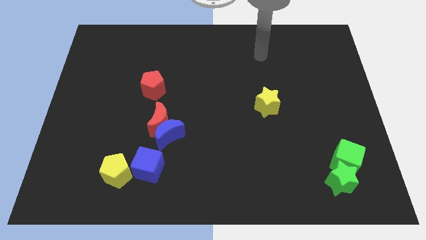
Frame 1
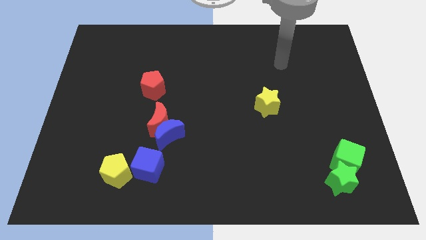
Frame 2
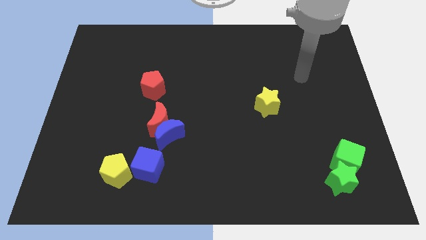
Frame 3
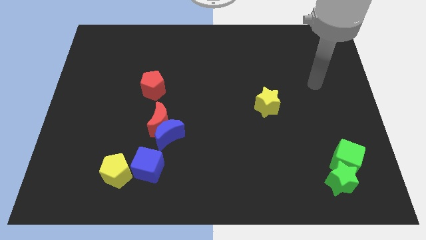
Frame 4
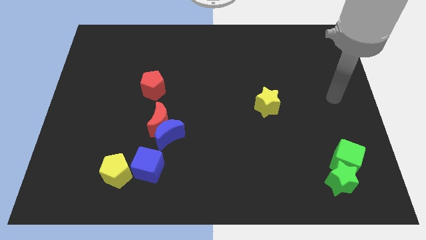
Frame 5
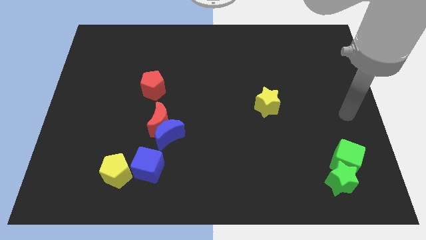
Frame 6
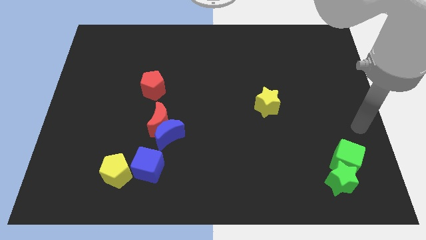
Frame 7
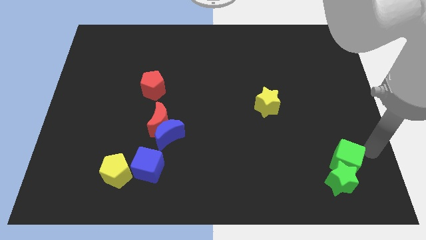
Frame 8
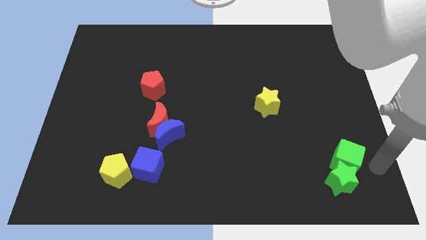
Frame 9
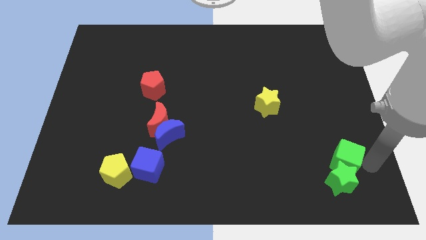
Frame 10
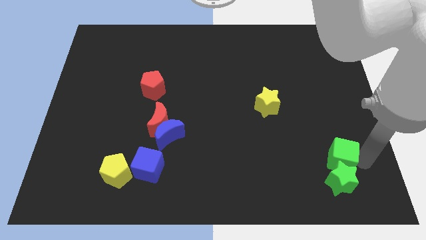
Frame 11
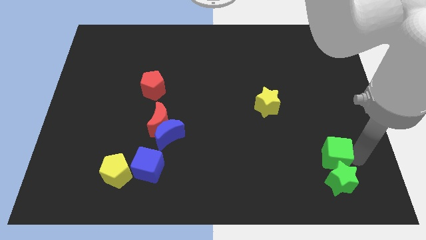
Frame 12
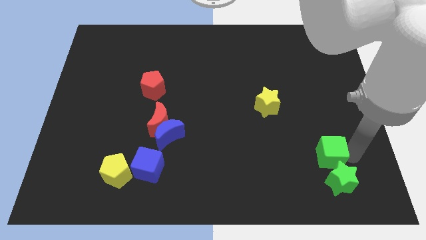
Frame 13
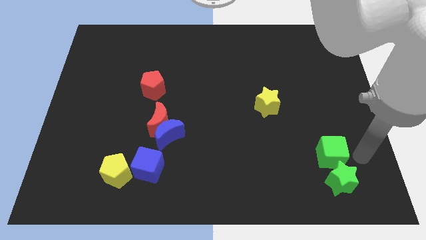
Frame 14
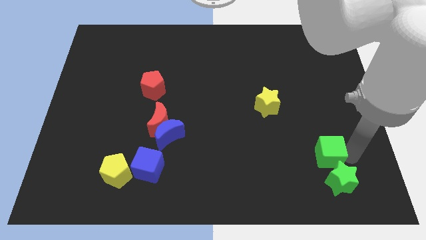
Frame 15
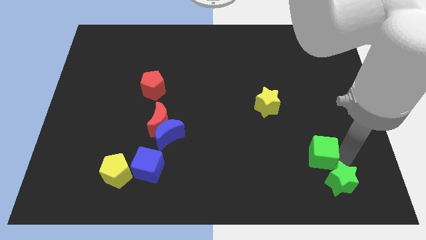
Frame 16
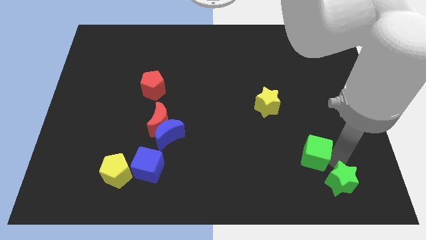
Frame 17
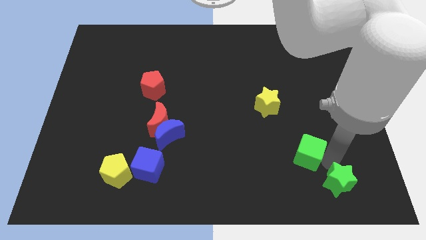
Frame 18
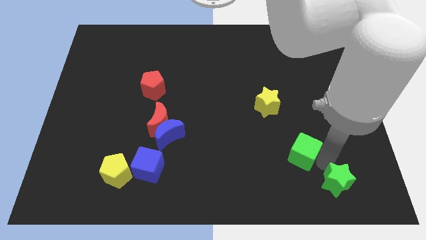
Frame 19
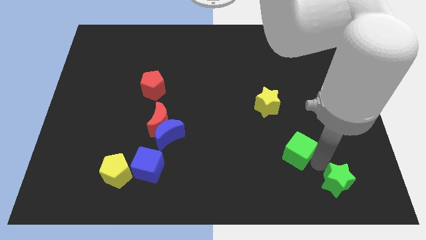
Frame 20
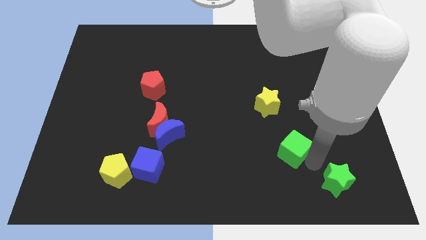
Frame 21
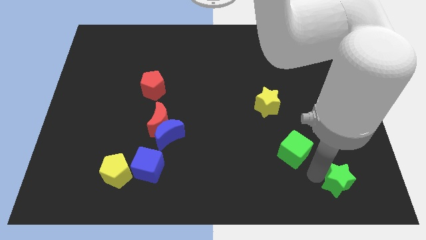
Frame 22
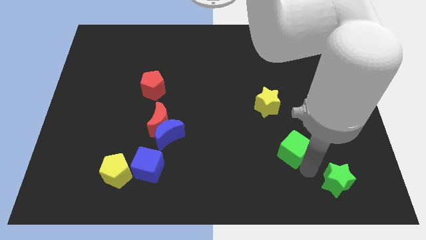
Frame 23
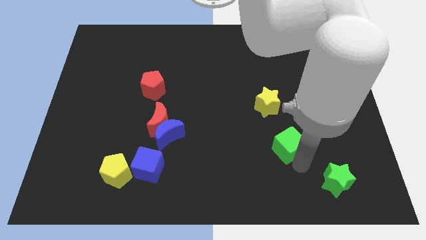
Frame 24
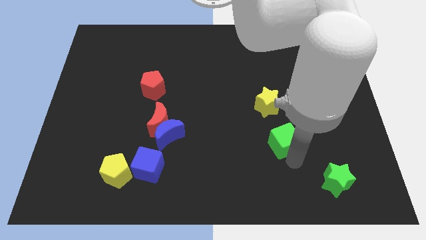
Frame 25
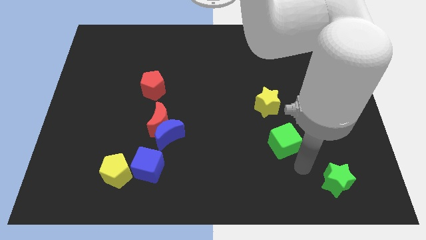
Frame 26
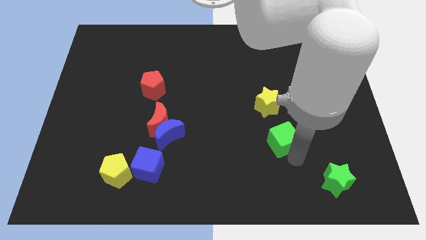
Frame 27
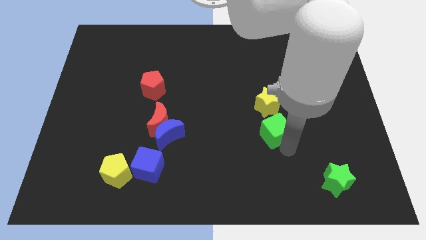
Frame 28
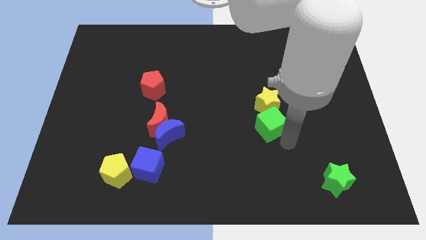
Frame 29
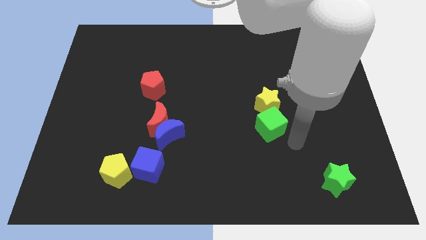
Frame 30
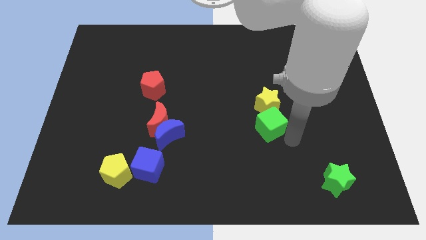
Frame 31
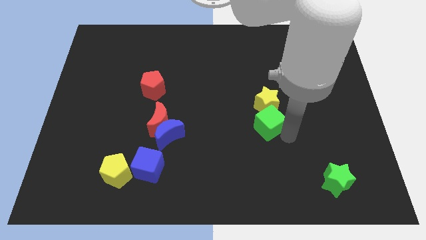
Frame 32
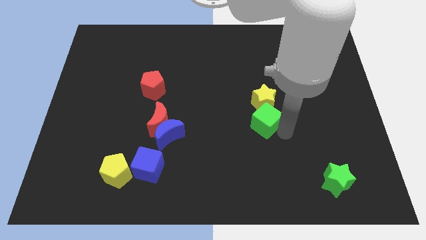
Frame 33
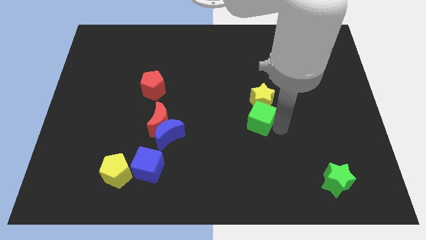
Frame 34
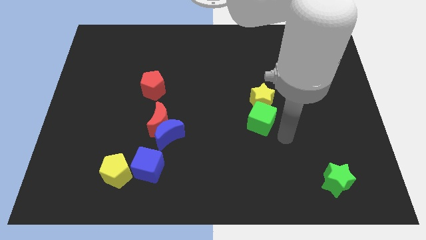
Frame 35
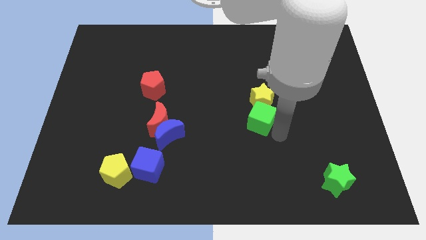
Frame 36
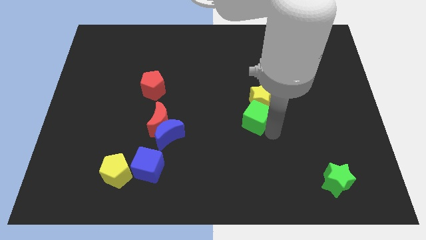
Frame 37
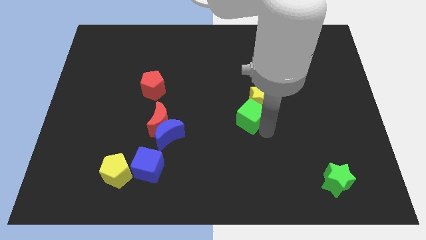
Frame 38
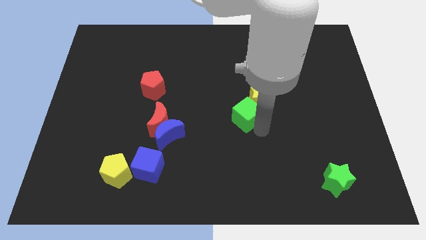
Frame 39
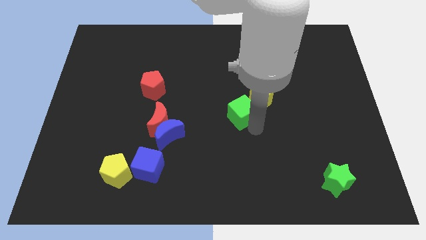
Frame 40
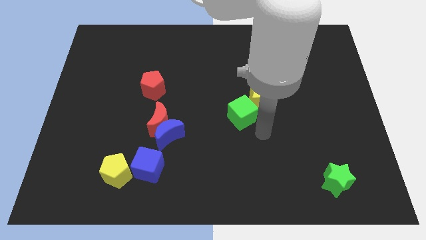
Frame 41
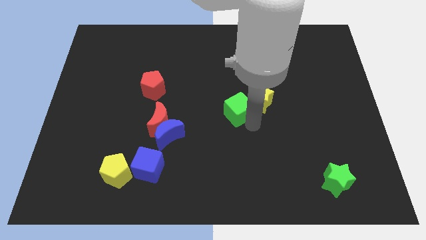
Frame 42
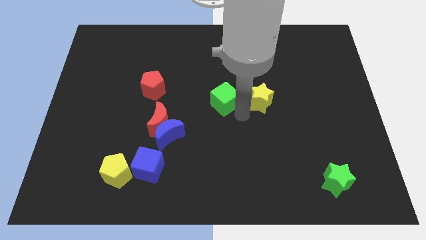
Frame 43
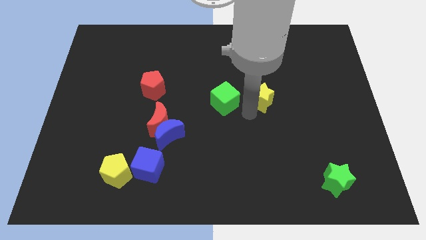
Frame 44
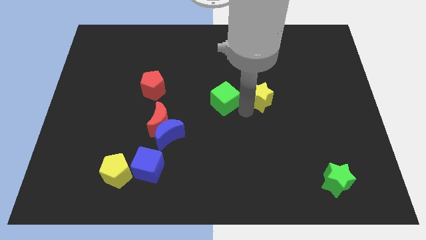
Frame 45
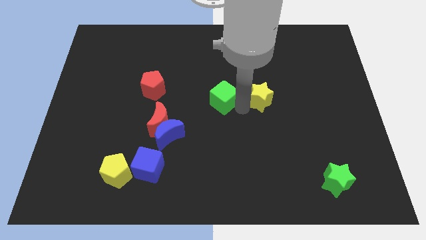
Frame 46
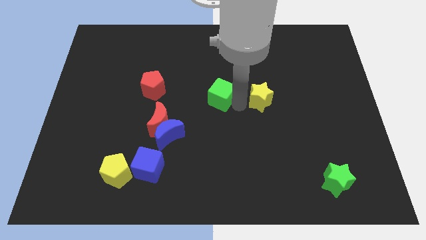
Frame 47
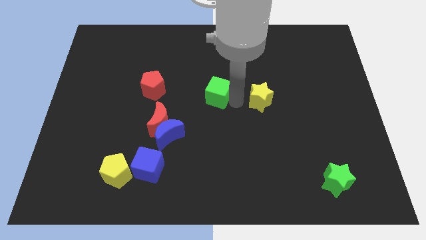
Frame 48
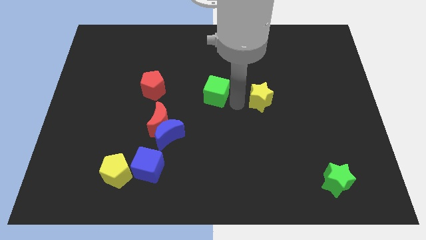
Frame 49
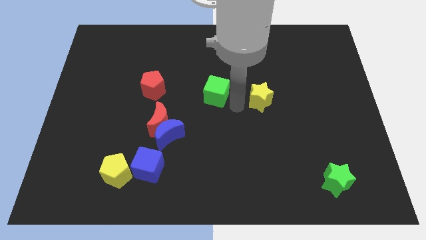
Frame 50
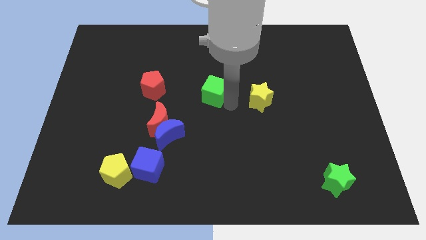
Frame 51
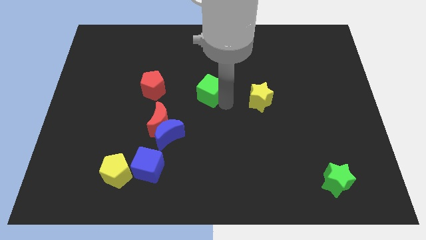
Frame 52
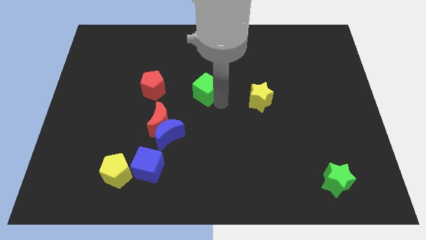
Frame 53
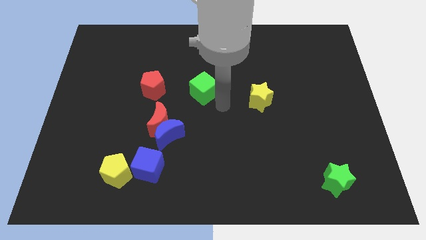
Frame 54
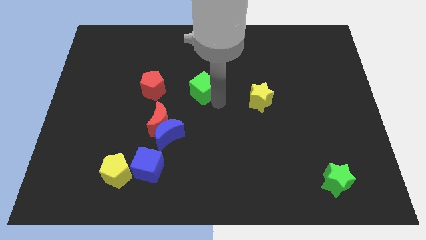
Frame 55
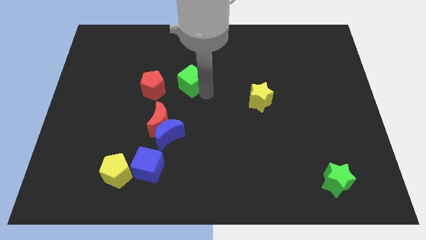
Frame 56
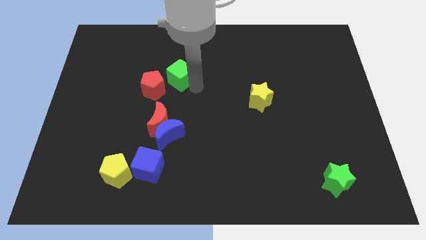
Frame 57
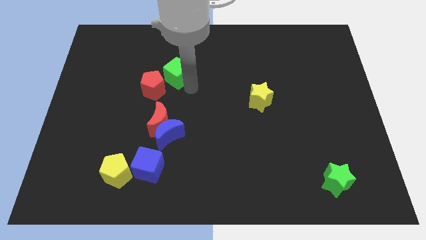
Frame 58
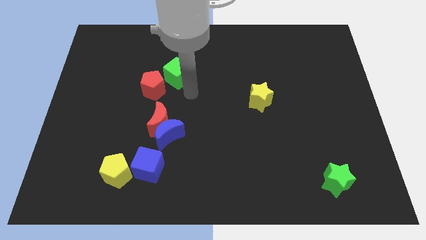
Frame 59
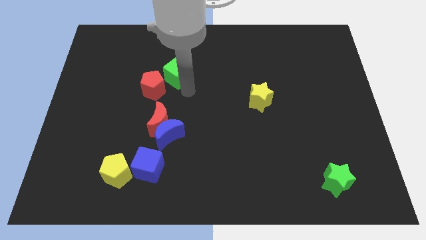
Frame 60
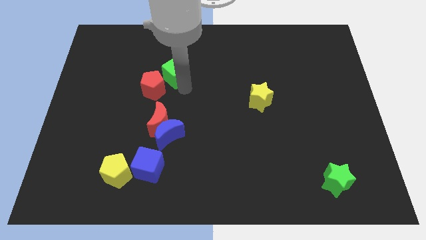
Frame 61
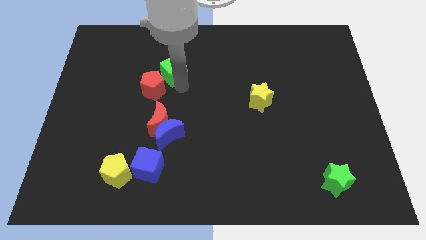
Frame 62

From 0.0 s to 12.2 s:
push the green cube to the top side of the red pentagon

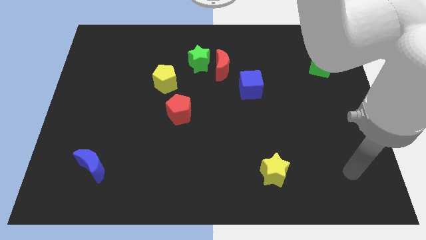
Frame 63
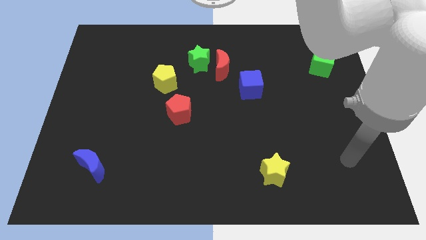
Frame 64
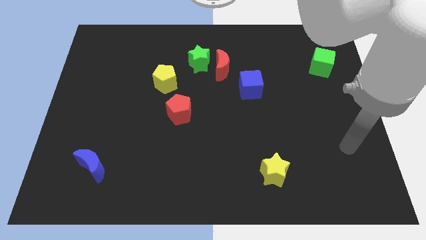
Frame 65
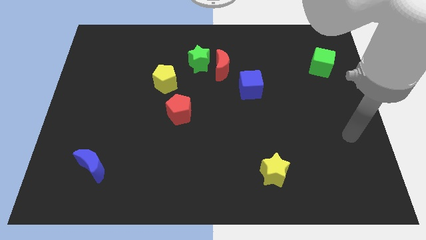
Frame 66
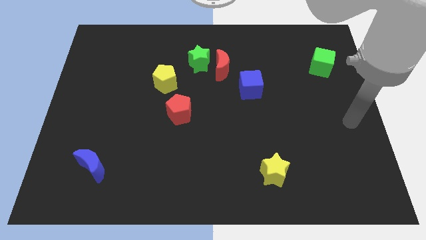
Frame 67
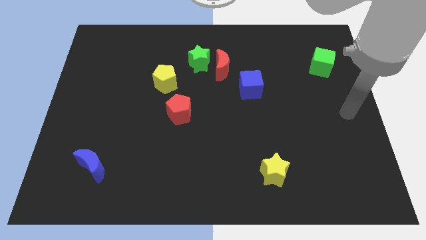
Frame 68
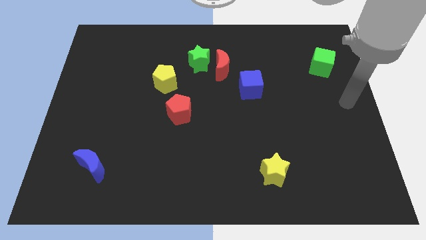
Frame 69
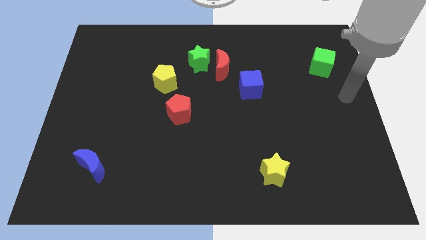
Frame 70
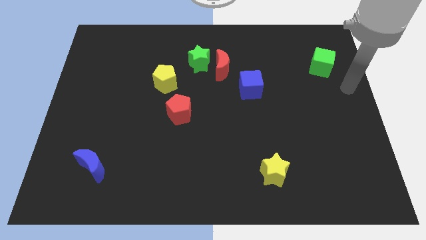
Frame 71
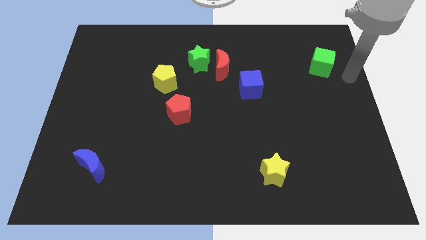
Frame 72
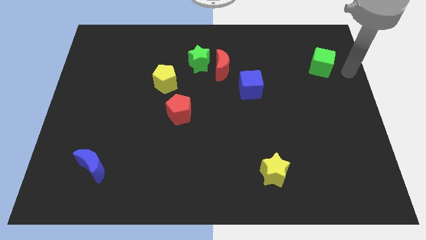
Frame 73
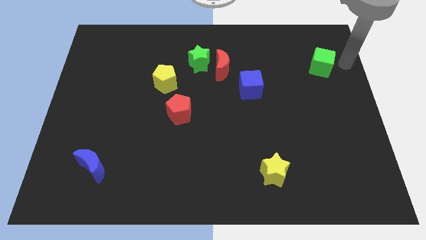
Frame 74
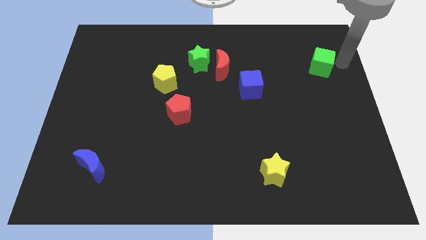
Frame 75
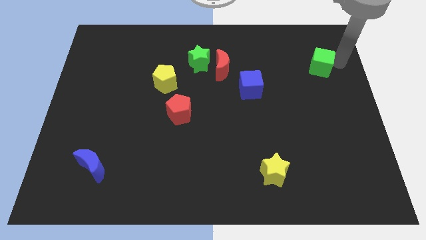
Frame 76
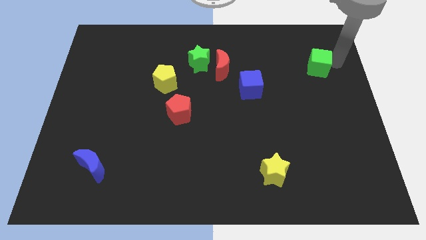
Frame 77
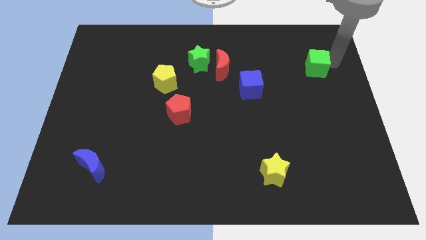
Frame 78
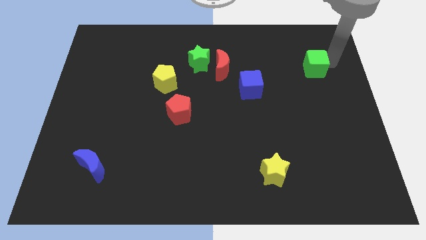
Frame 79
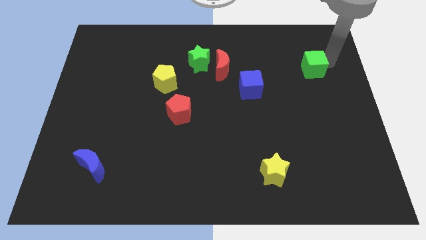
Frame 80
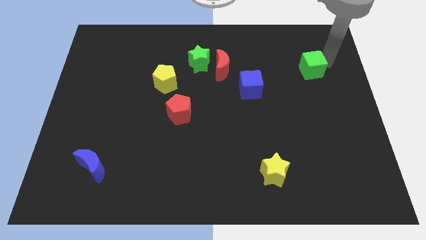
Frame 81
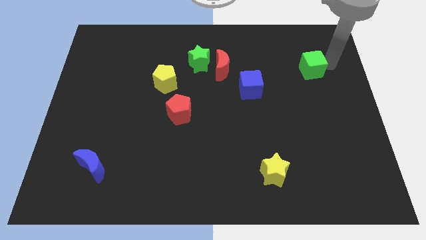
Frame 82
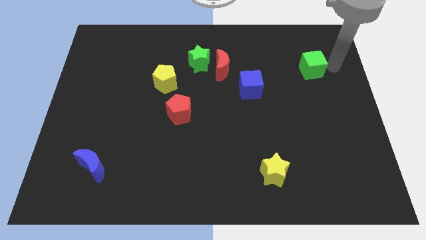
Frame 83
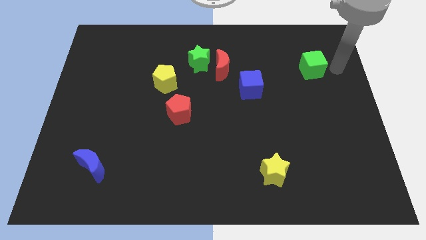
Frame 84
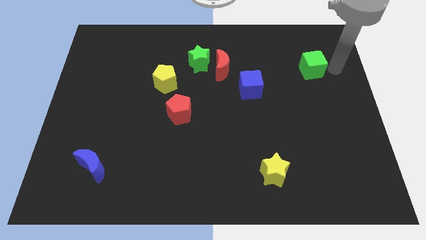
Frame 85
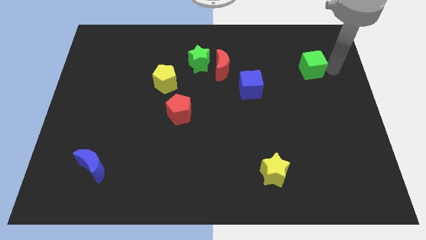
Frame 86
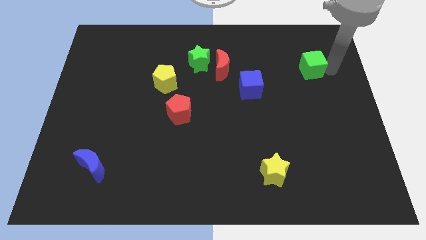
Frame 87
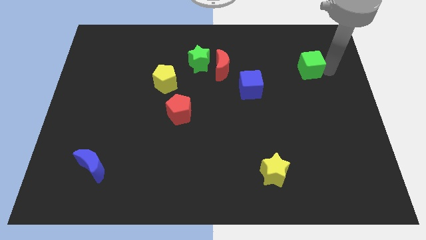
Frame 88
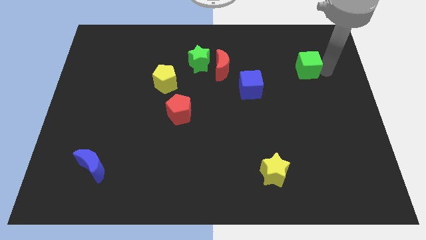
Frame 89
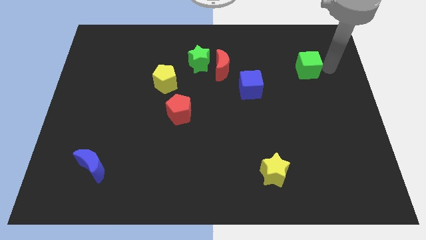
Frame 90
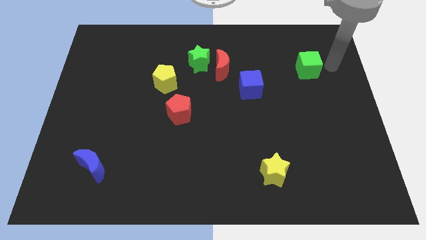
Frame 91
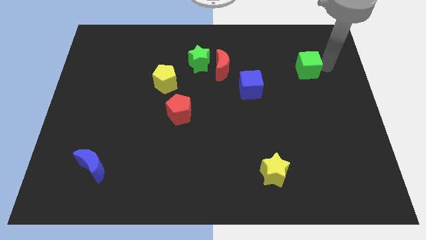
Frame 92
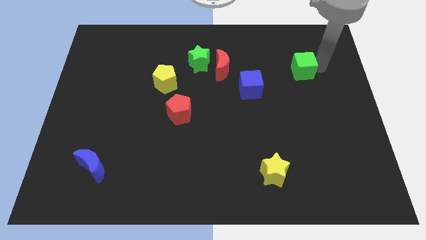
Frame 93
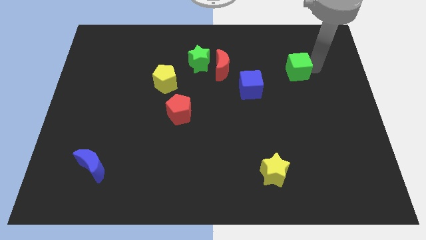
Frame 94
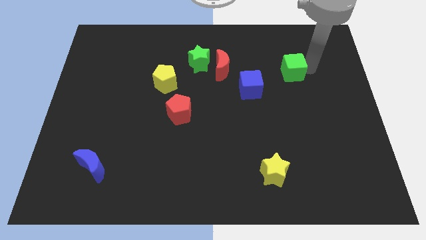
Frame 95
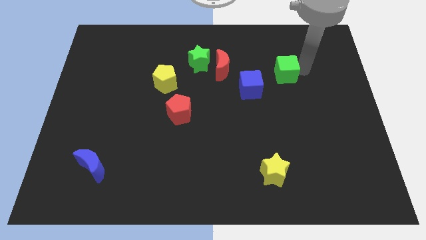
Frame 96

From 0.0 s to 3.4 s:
push the green cube to the right of the red moon
